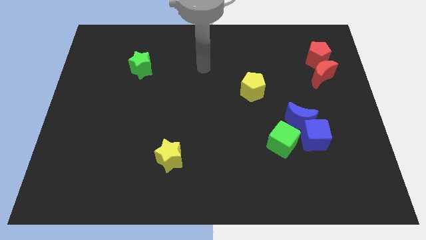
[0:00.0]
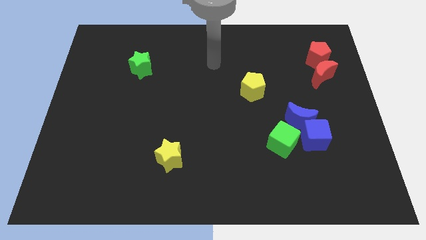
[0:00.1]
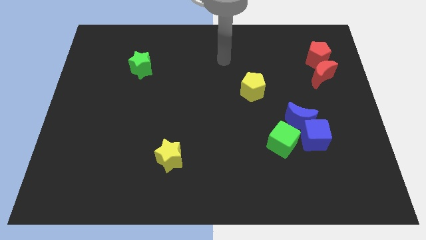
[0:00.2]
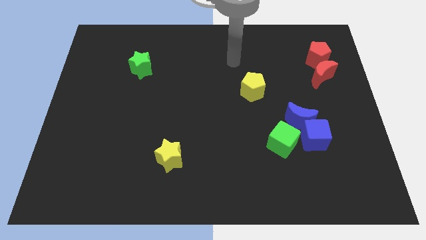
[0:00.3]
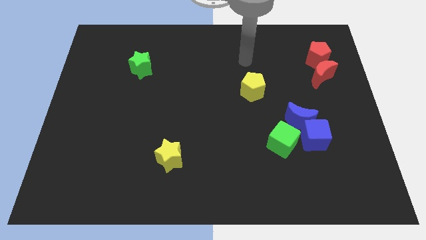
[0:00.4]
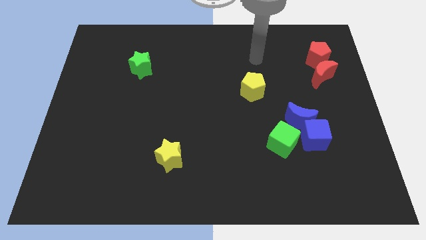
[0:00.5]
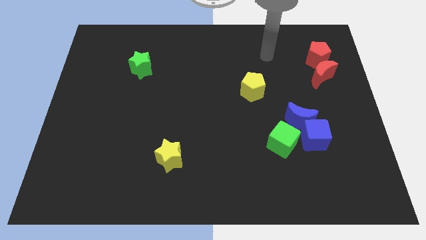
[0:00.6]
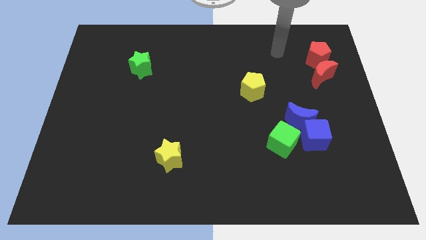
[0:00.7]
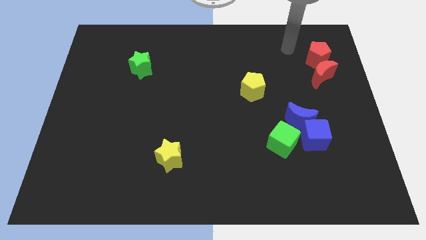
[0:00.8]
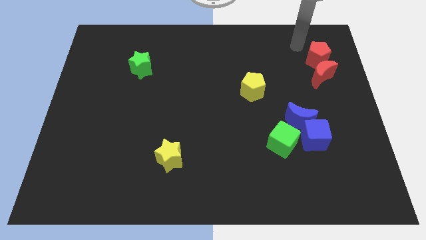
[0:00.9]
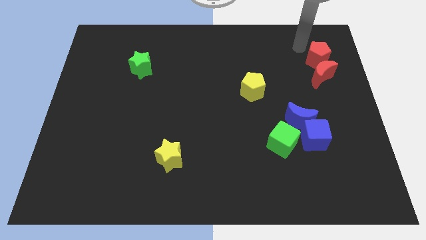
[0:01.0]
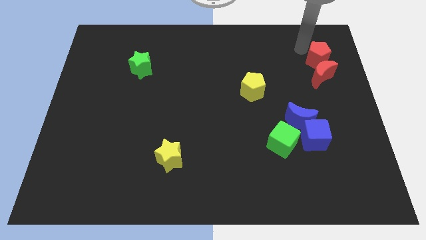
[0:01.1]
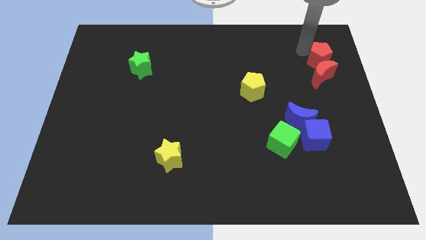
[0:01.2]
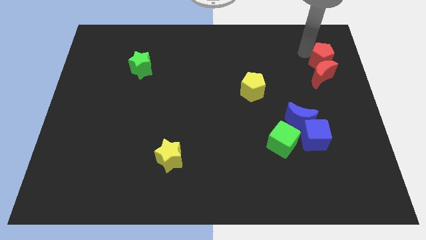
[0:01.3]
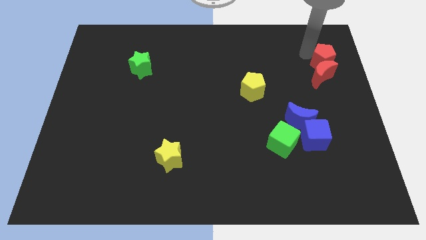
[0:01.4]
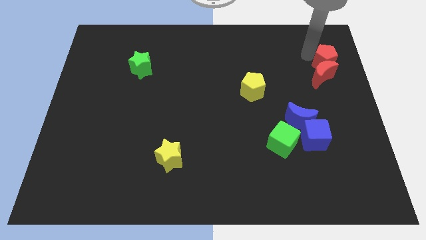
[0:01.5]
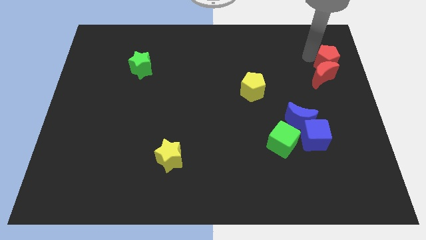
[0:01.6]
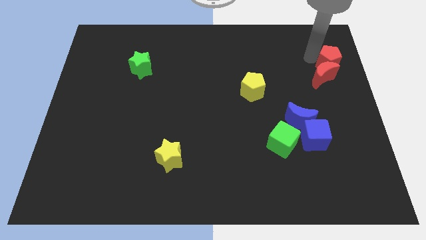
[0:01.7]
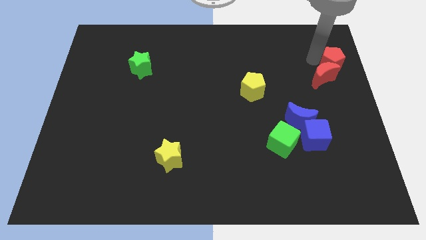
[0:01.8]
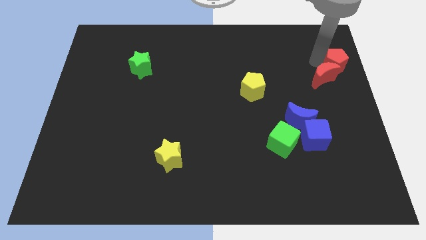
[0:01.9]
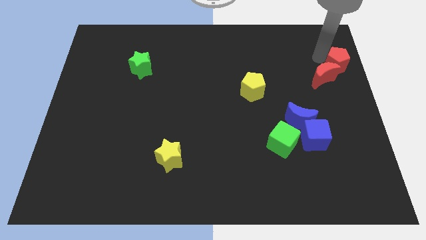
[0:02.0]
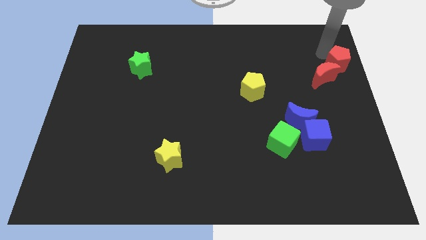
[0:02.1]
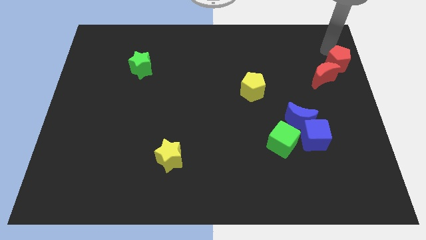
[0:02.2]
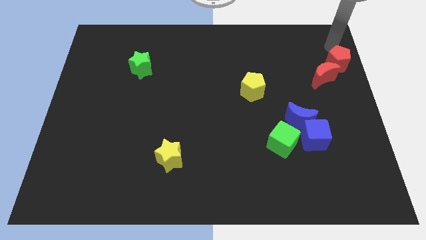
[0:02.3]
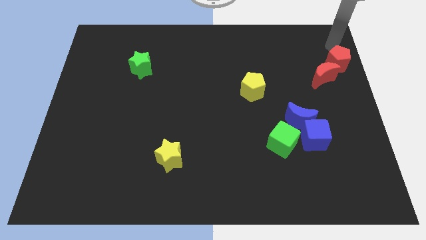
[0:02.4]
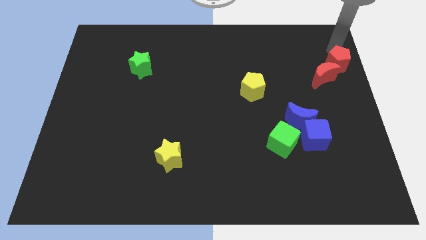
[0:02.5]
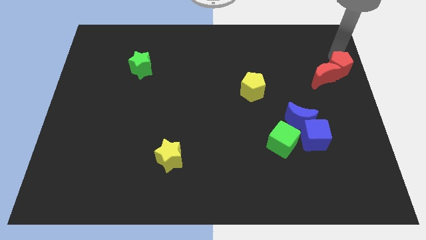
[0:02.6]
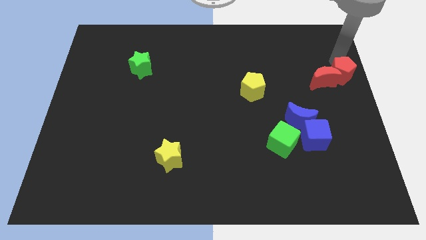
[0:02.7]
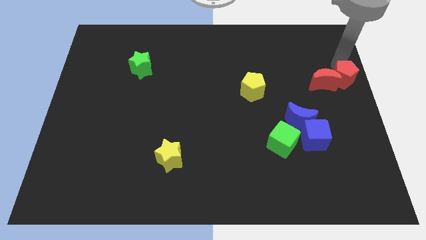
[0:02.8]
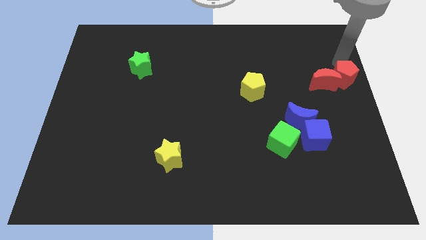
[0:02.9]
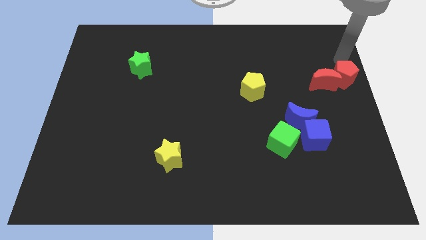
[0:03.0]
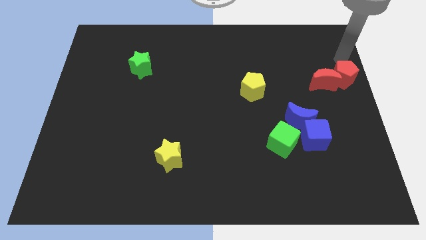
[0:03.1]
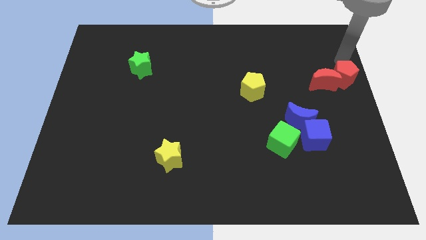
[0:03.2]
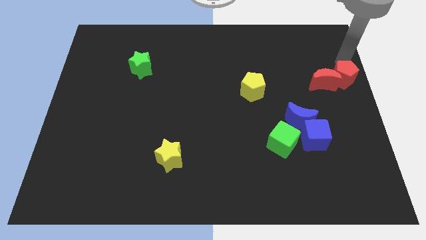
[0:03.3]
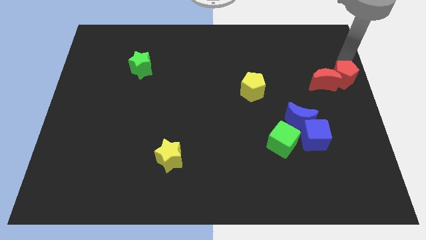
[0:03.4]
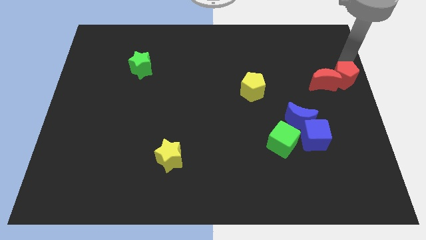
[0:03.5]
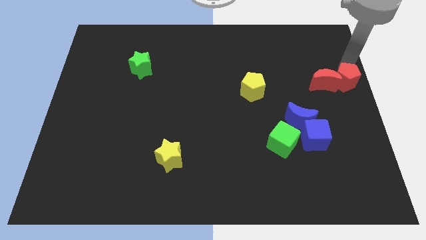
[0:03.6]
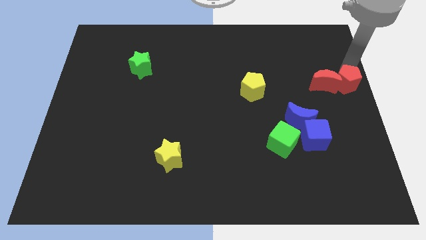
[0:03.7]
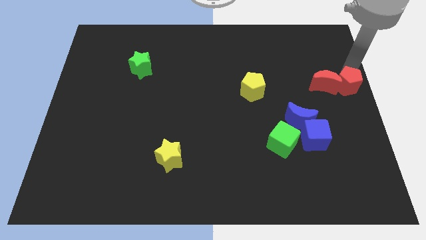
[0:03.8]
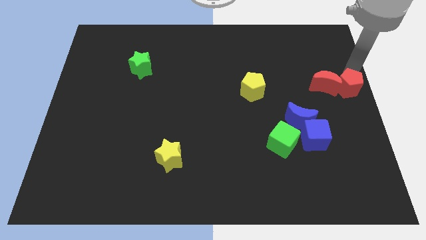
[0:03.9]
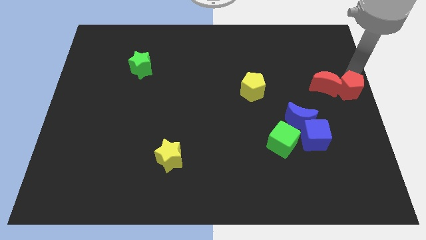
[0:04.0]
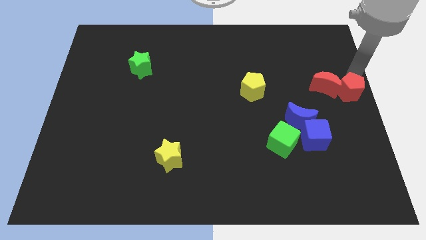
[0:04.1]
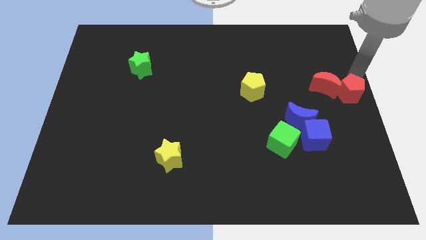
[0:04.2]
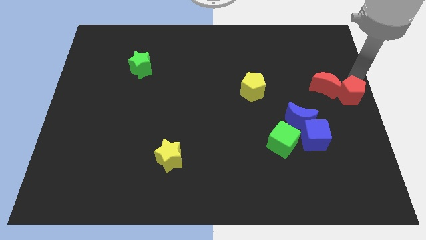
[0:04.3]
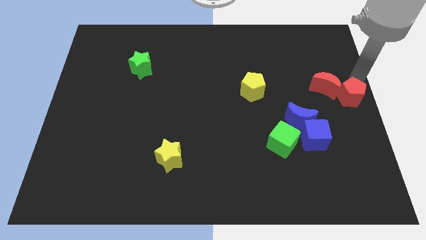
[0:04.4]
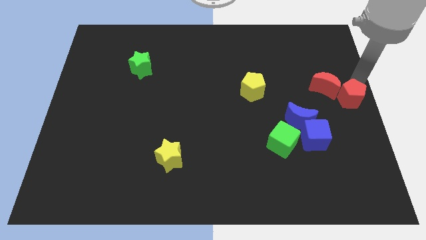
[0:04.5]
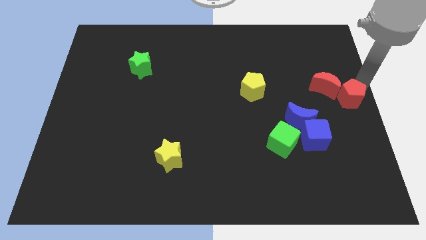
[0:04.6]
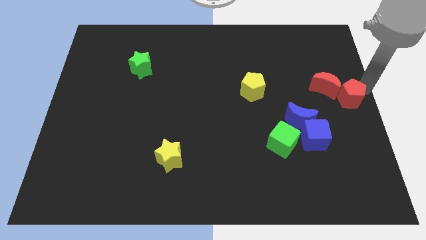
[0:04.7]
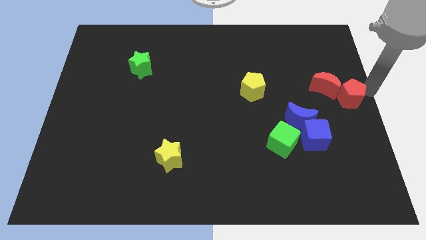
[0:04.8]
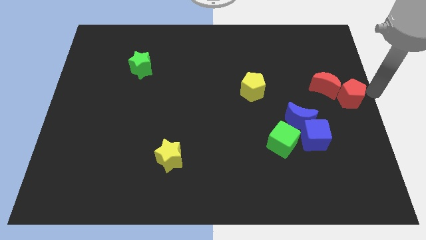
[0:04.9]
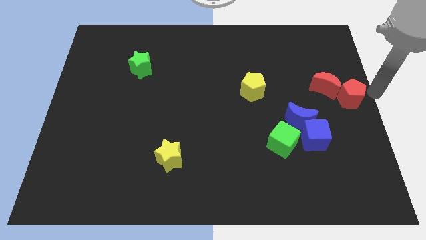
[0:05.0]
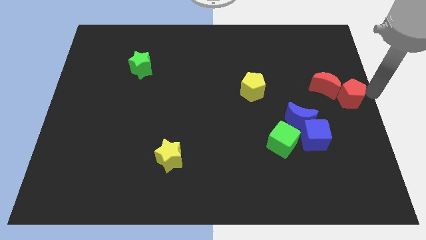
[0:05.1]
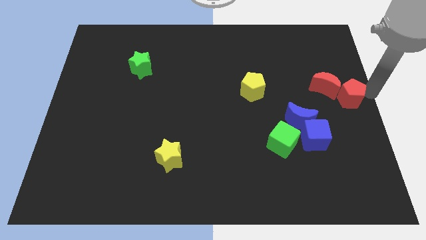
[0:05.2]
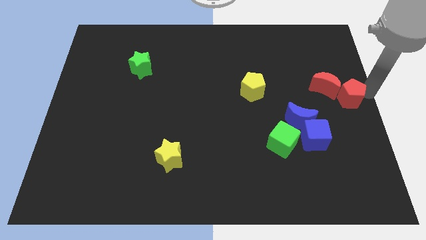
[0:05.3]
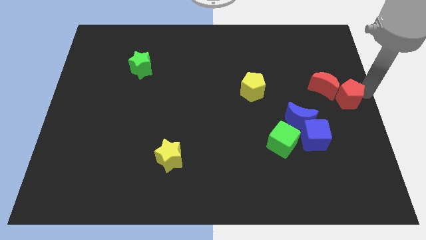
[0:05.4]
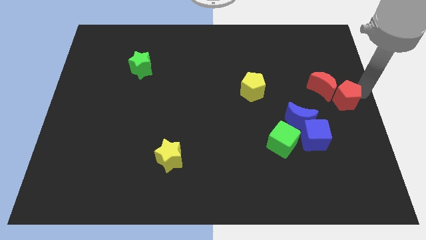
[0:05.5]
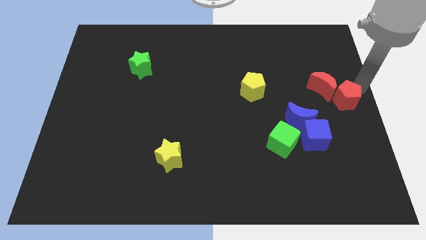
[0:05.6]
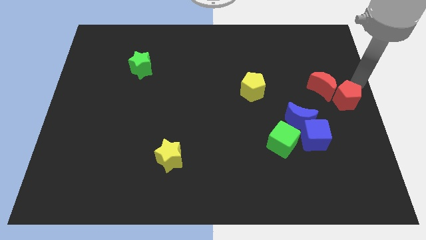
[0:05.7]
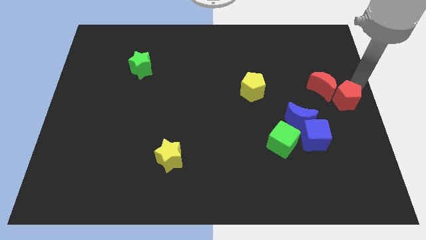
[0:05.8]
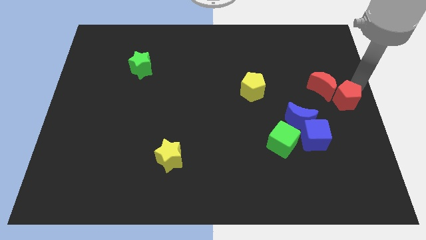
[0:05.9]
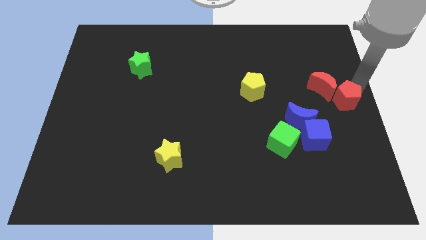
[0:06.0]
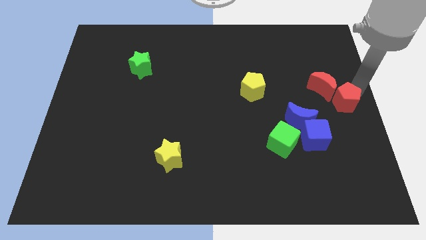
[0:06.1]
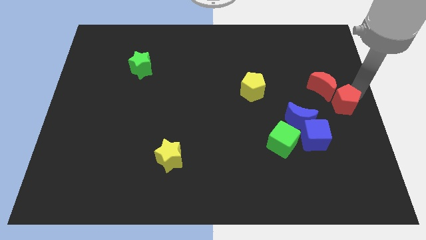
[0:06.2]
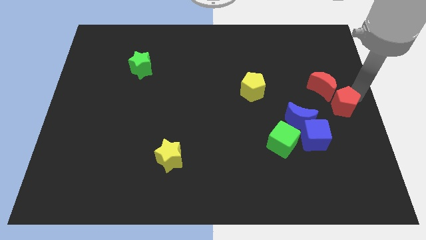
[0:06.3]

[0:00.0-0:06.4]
push the red pentagon to the top right side of the blue cube
